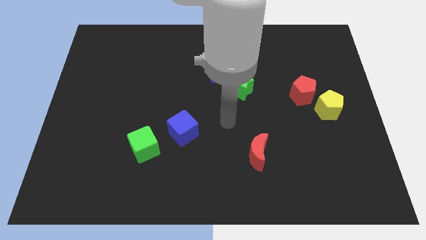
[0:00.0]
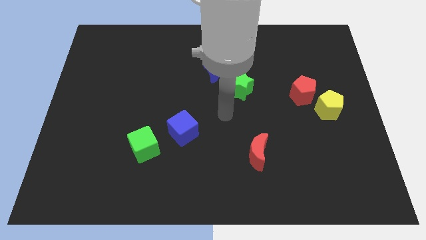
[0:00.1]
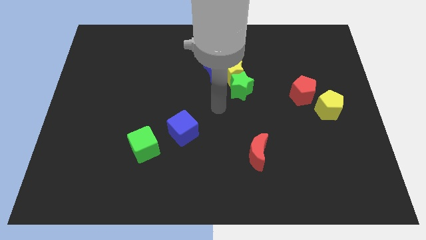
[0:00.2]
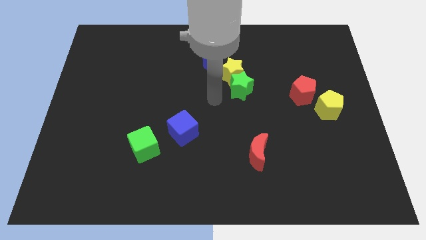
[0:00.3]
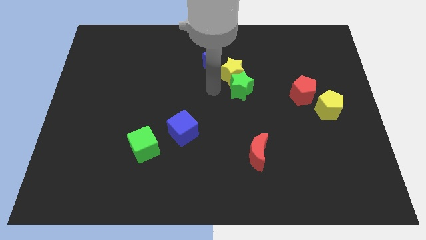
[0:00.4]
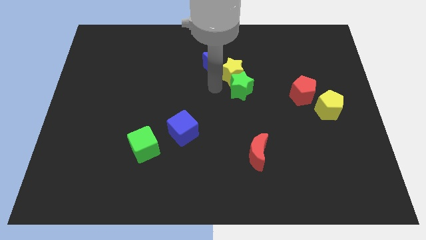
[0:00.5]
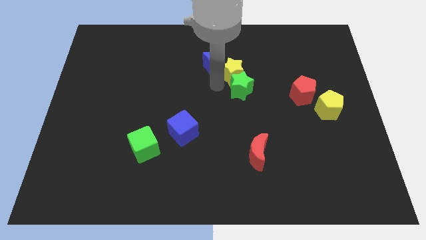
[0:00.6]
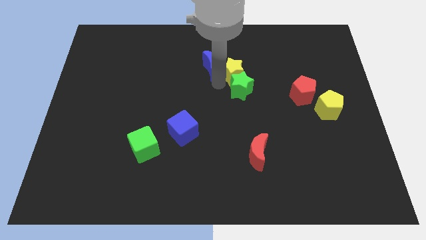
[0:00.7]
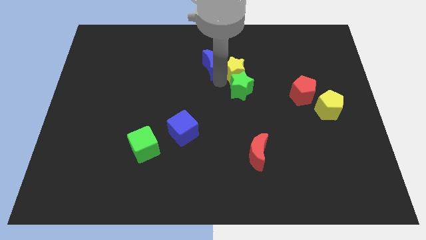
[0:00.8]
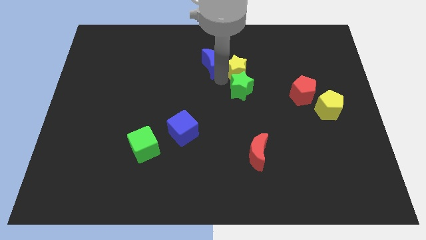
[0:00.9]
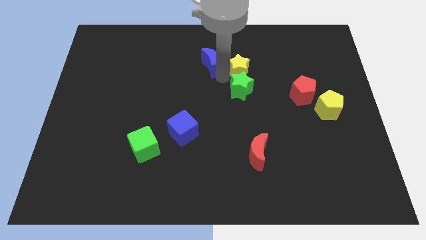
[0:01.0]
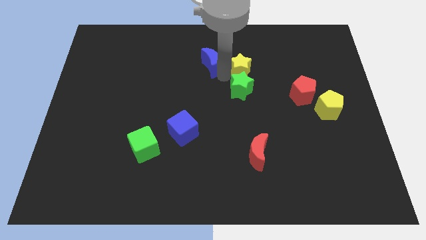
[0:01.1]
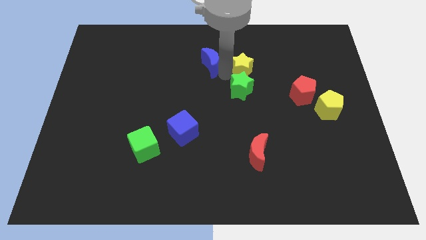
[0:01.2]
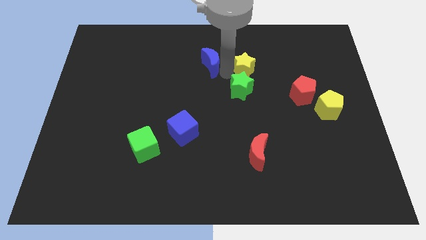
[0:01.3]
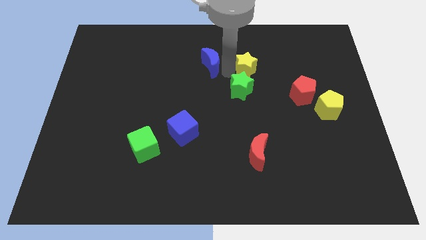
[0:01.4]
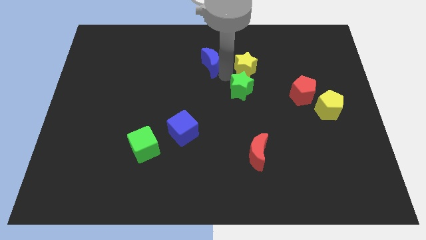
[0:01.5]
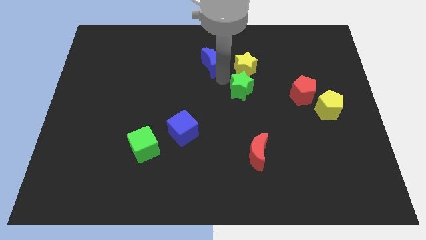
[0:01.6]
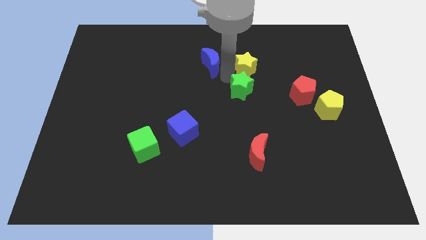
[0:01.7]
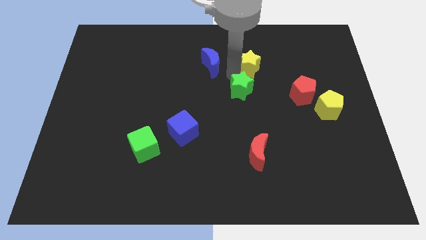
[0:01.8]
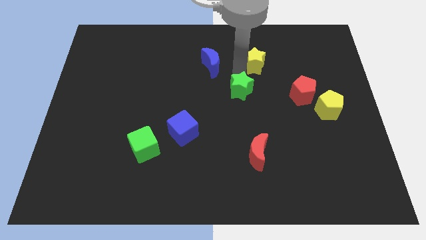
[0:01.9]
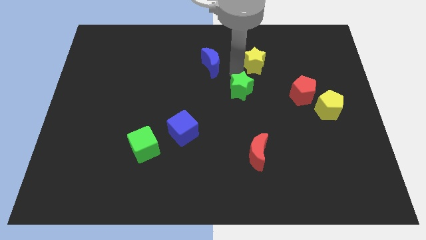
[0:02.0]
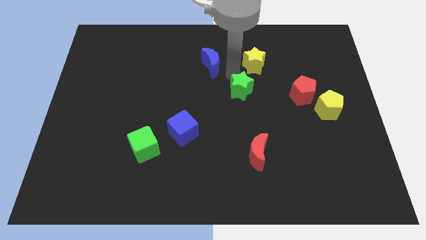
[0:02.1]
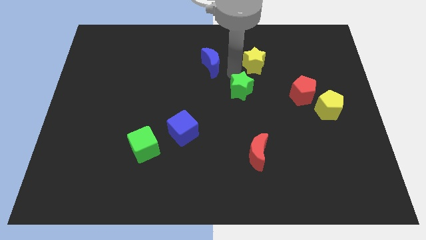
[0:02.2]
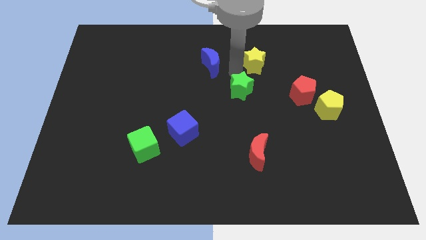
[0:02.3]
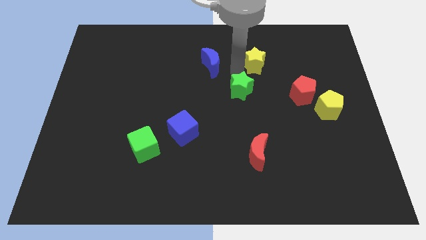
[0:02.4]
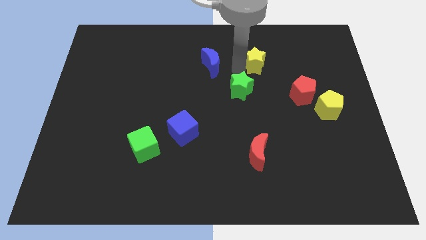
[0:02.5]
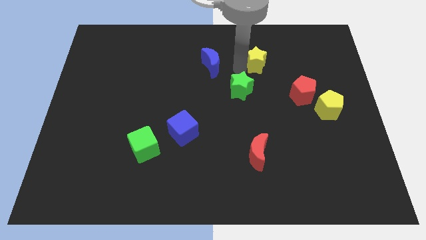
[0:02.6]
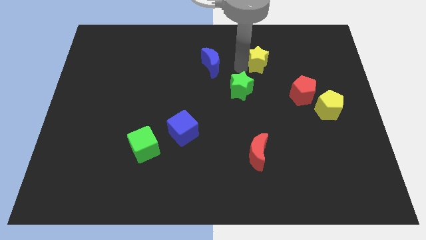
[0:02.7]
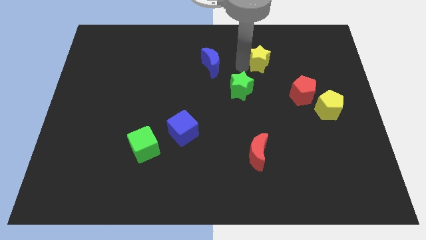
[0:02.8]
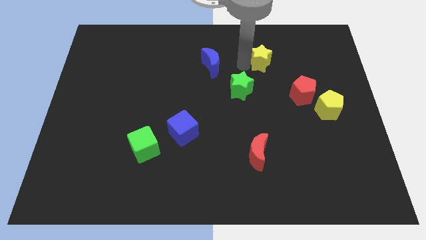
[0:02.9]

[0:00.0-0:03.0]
separate the yellow star from the green star and blue moon

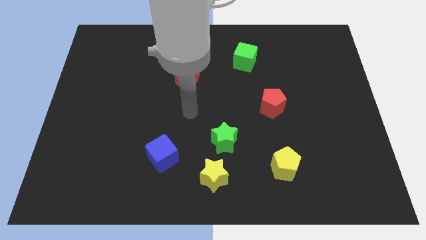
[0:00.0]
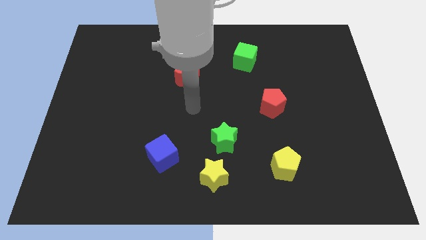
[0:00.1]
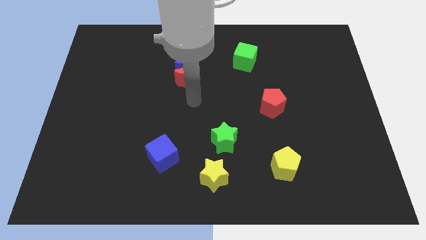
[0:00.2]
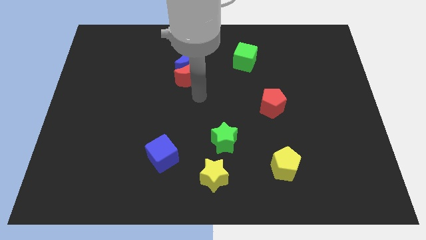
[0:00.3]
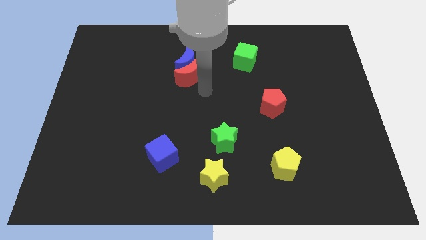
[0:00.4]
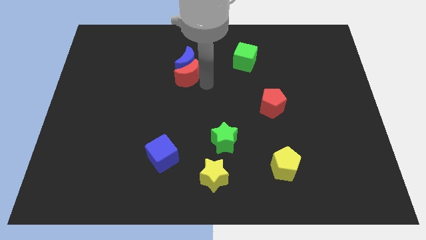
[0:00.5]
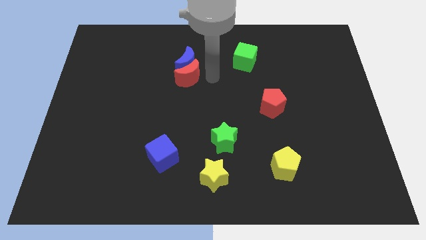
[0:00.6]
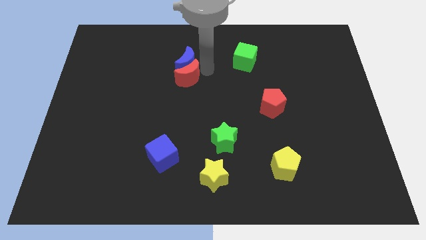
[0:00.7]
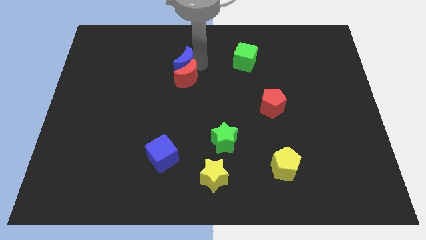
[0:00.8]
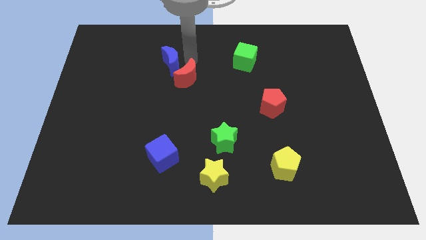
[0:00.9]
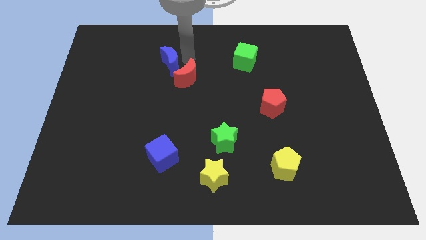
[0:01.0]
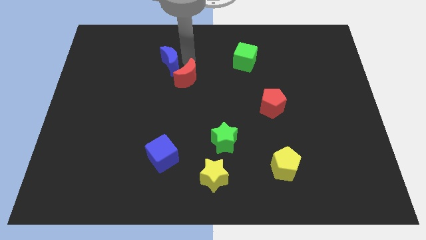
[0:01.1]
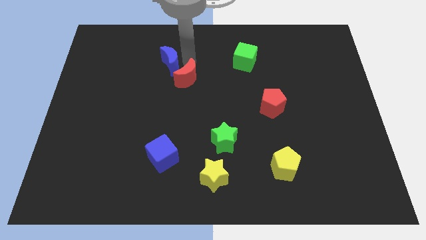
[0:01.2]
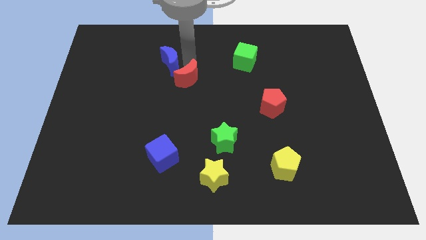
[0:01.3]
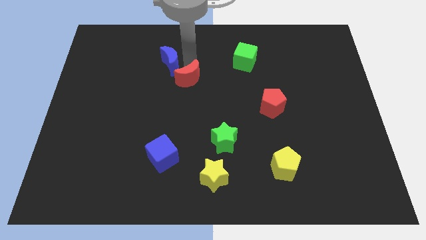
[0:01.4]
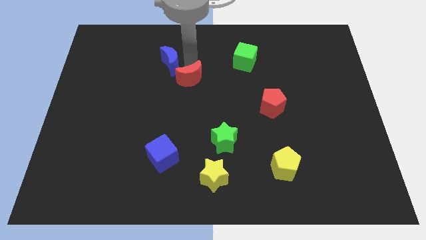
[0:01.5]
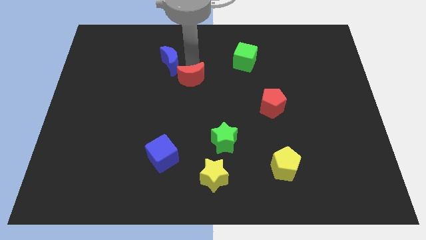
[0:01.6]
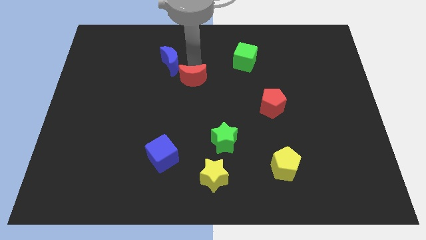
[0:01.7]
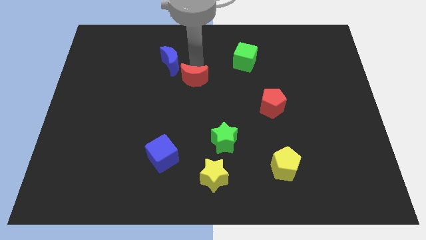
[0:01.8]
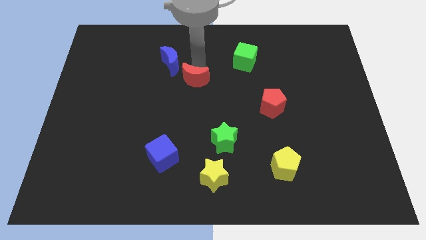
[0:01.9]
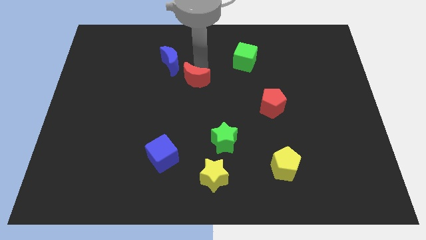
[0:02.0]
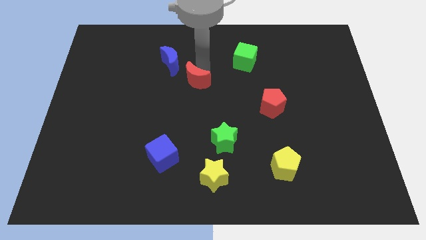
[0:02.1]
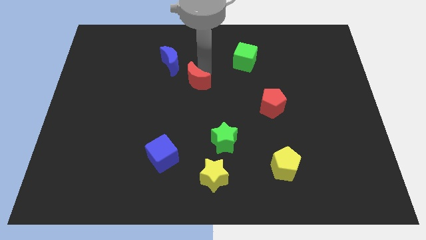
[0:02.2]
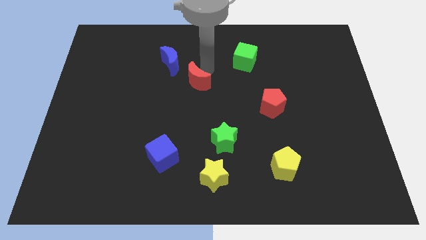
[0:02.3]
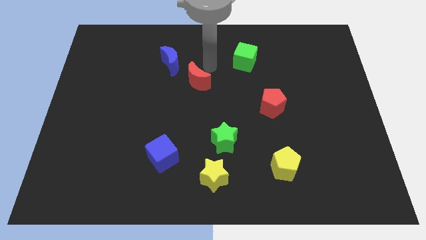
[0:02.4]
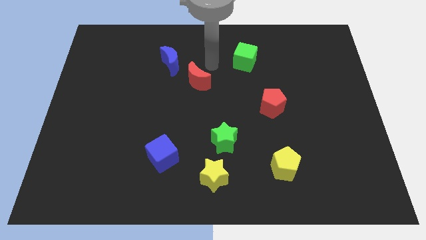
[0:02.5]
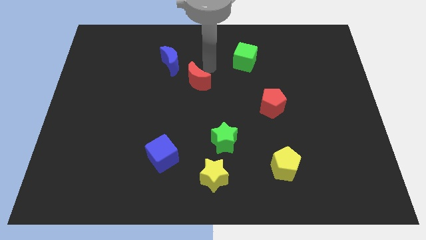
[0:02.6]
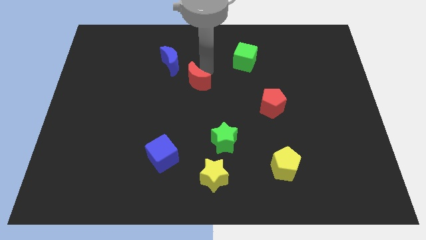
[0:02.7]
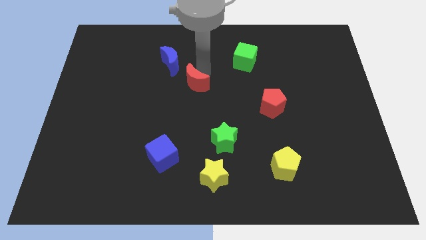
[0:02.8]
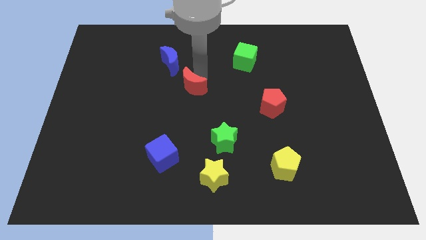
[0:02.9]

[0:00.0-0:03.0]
separate the red moon from the blue moon

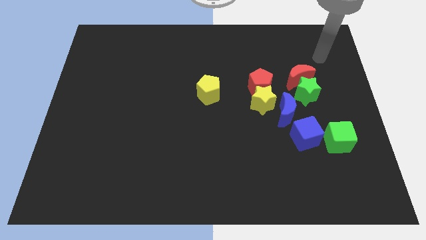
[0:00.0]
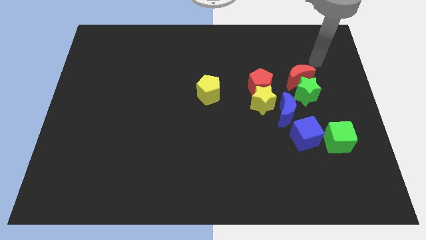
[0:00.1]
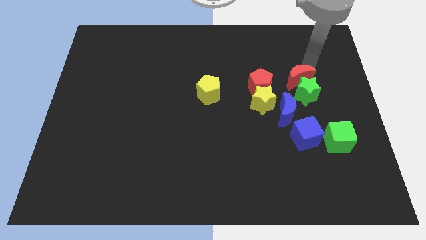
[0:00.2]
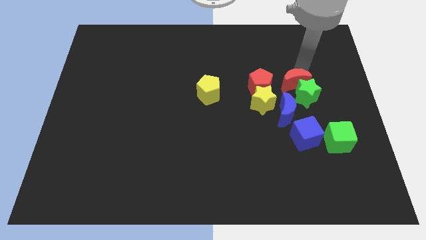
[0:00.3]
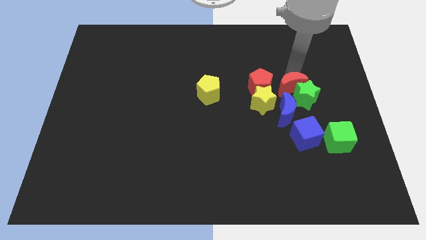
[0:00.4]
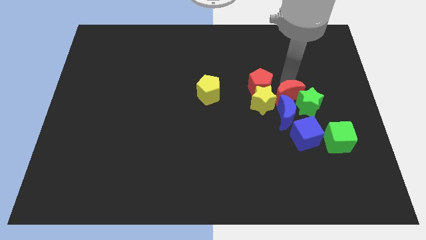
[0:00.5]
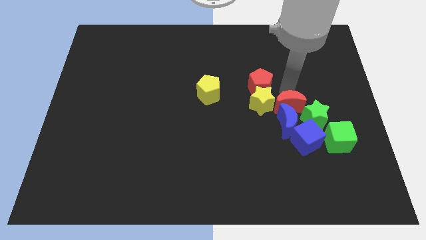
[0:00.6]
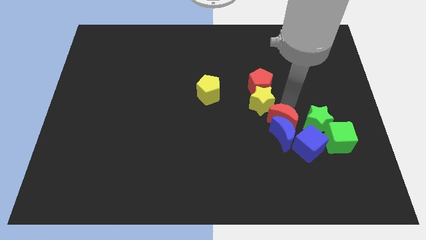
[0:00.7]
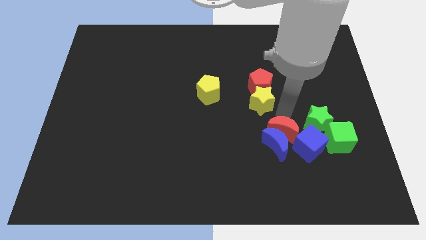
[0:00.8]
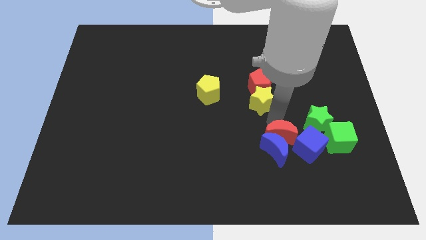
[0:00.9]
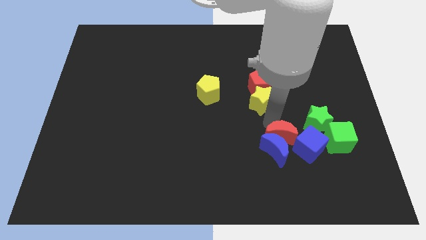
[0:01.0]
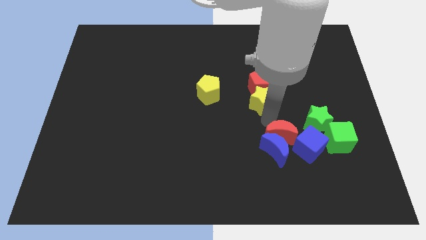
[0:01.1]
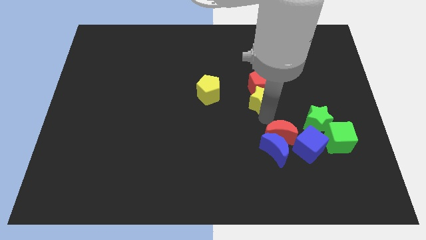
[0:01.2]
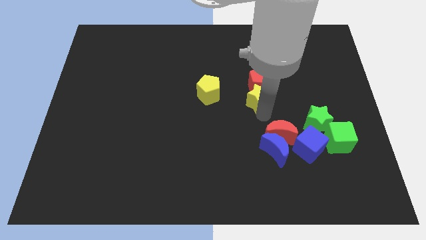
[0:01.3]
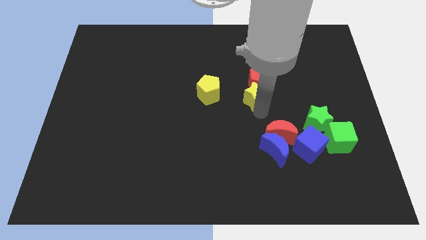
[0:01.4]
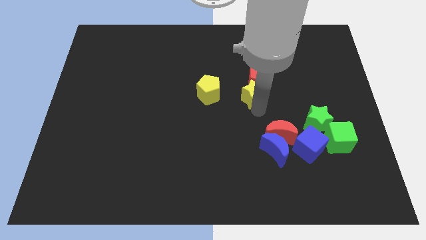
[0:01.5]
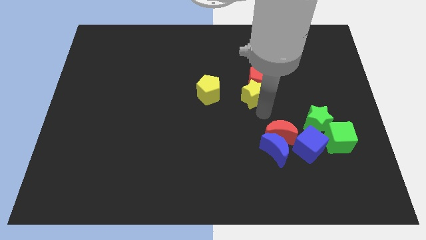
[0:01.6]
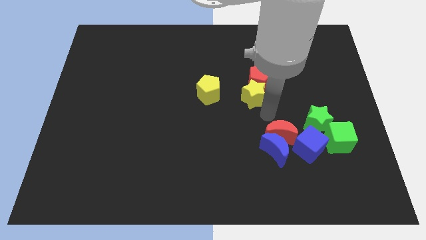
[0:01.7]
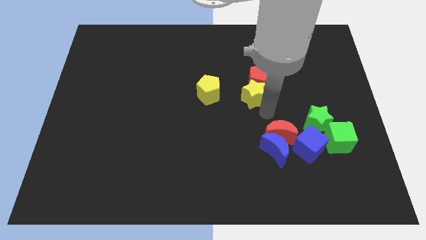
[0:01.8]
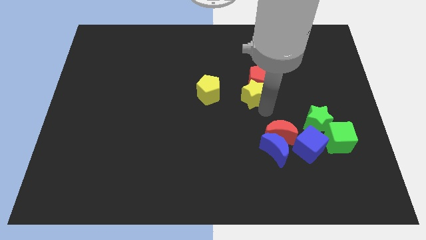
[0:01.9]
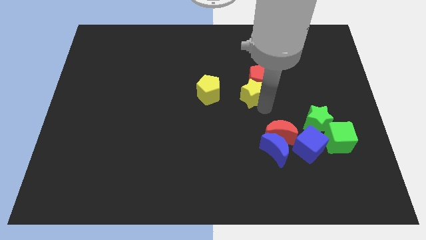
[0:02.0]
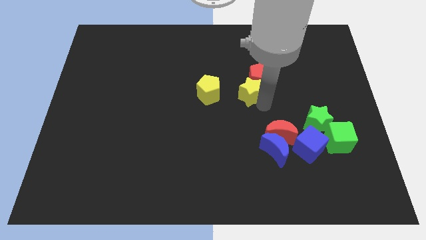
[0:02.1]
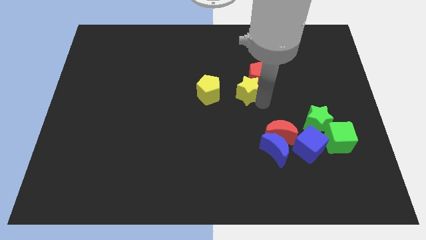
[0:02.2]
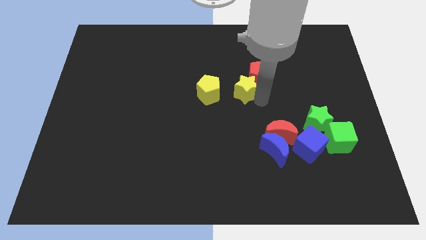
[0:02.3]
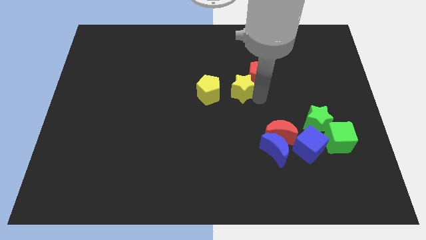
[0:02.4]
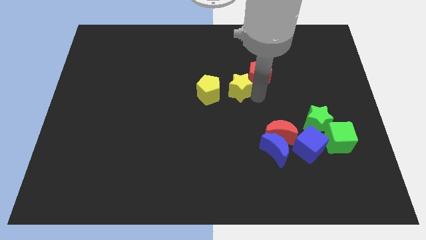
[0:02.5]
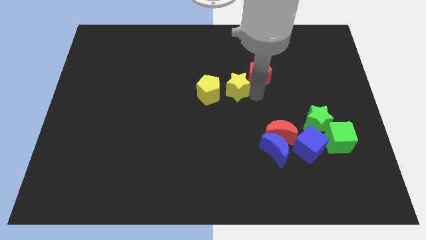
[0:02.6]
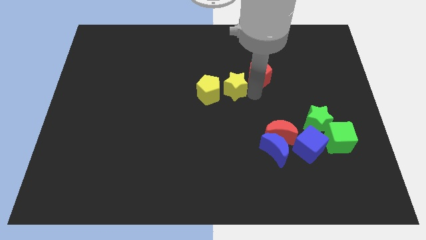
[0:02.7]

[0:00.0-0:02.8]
pull the yellow star apart from the red pentagon and blue moon

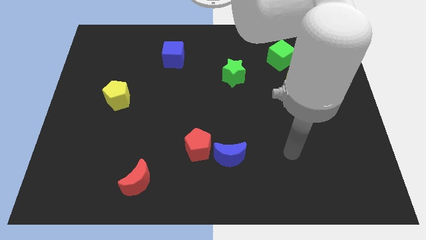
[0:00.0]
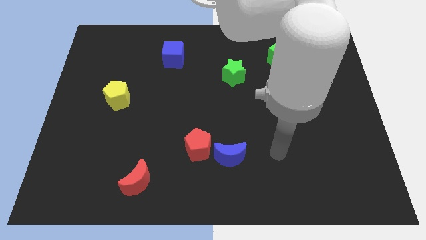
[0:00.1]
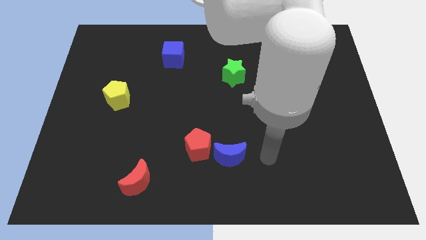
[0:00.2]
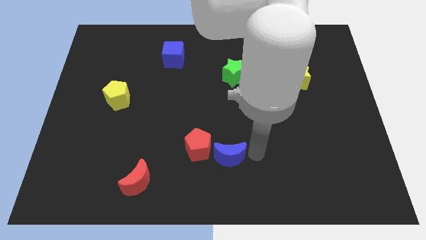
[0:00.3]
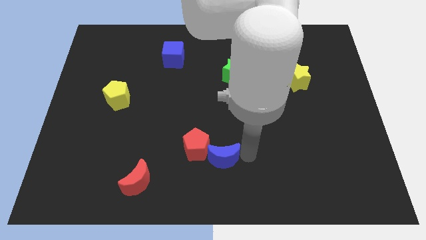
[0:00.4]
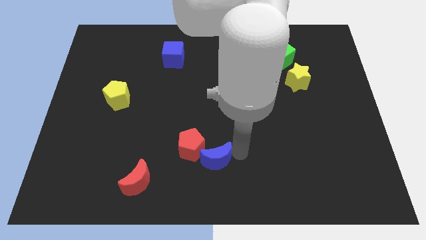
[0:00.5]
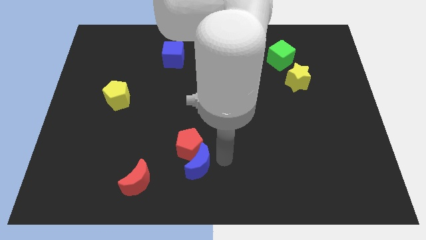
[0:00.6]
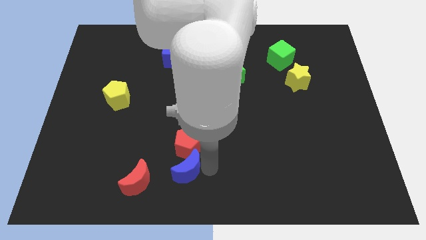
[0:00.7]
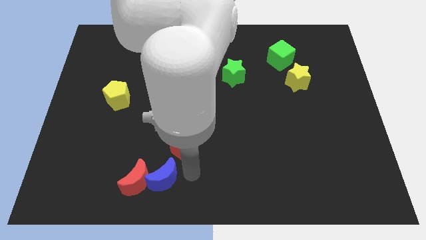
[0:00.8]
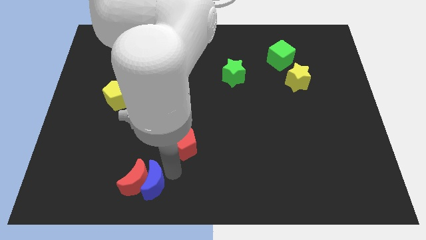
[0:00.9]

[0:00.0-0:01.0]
move the red pentagon away from the blue moon
